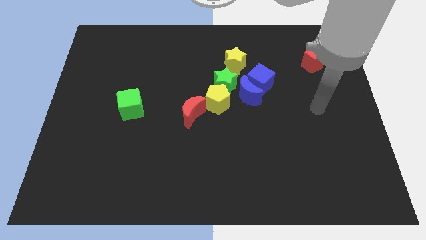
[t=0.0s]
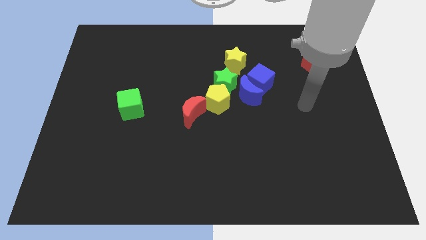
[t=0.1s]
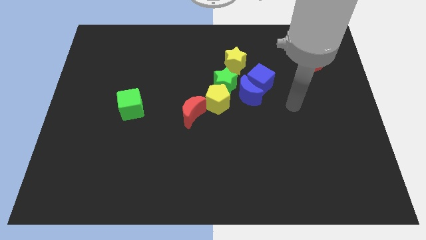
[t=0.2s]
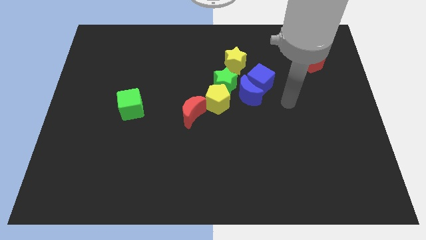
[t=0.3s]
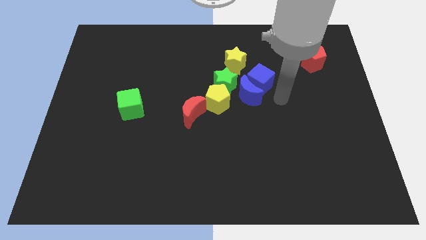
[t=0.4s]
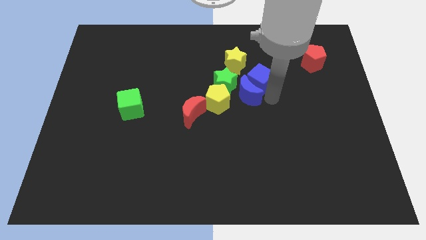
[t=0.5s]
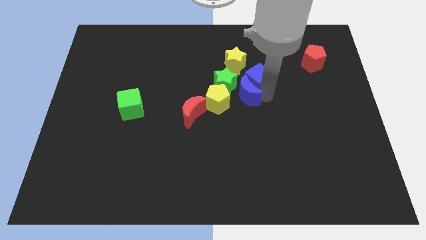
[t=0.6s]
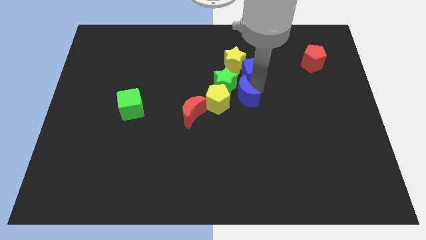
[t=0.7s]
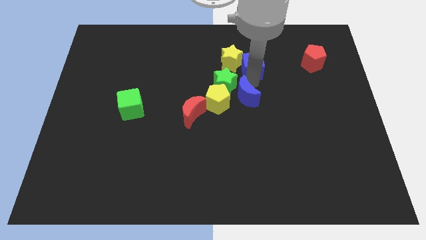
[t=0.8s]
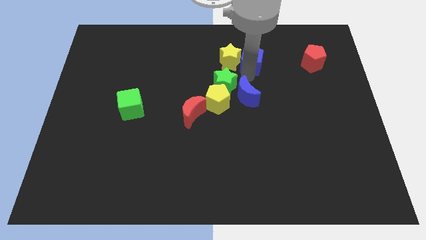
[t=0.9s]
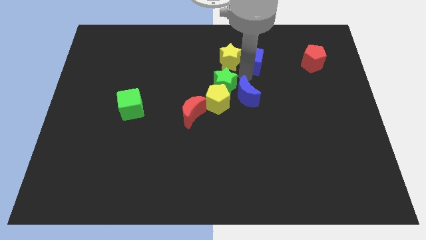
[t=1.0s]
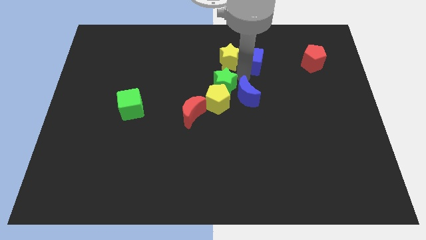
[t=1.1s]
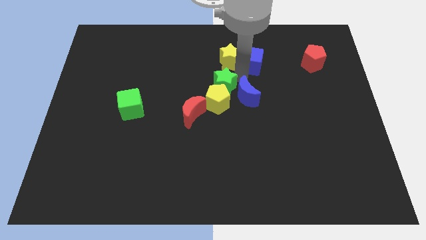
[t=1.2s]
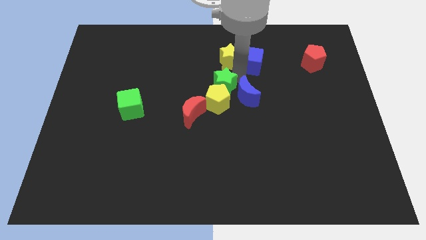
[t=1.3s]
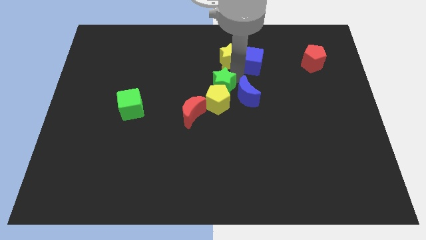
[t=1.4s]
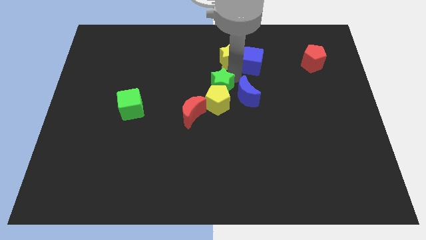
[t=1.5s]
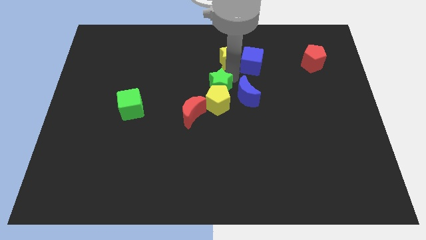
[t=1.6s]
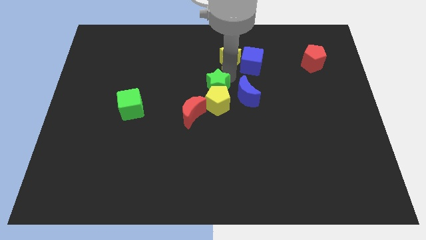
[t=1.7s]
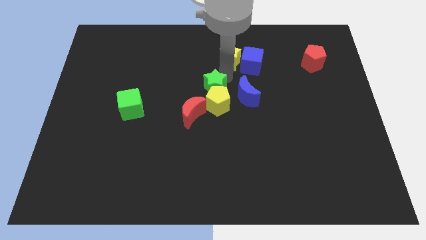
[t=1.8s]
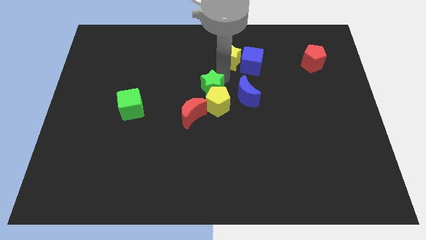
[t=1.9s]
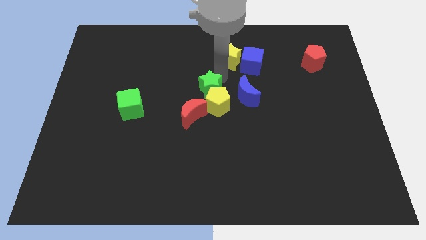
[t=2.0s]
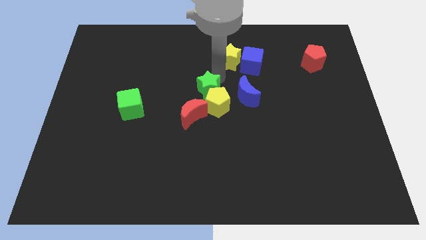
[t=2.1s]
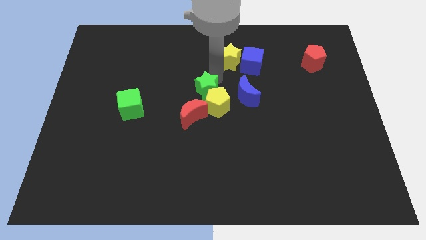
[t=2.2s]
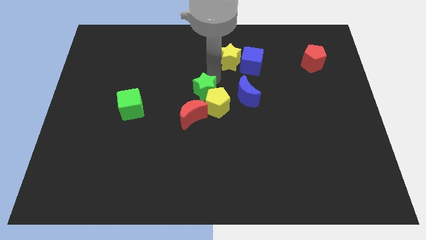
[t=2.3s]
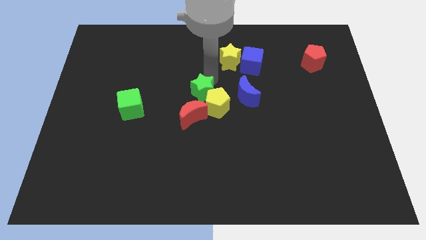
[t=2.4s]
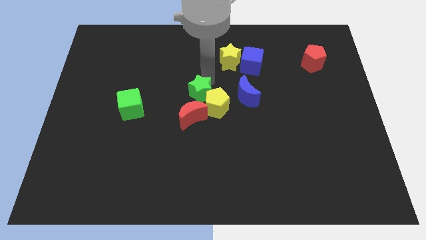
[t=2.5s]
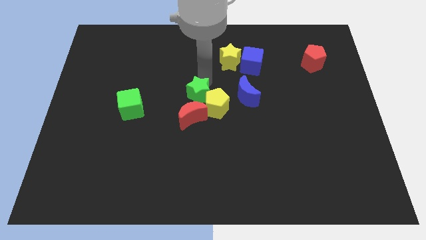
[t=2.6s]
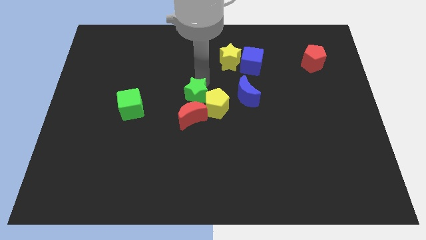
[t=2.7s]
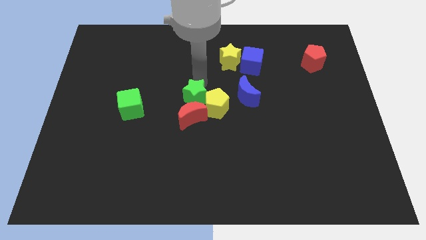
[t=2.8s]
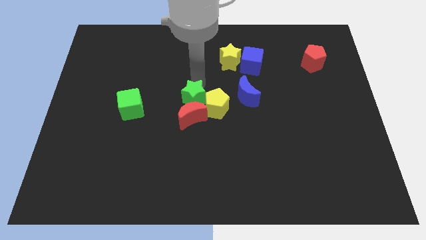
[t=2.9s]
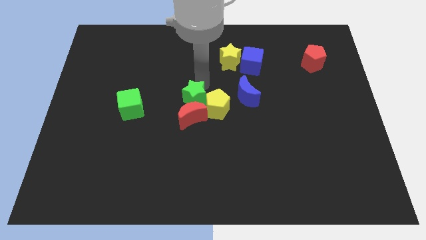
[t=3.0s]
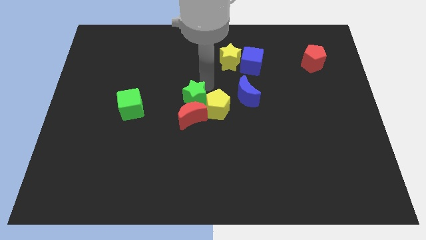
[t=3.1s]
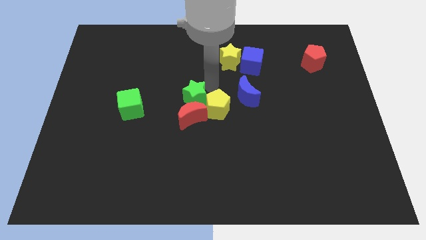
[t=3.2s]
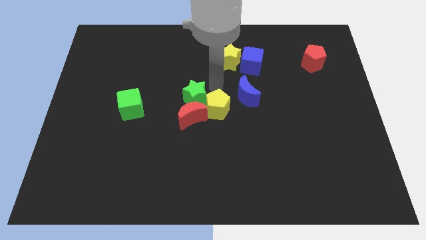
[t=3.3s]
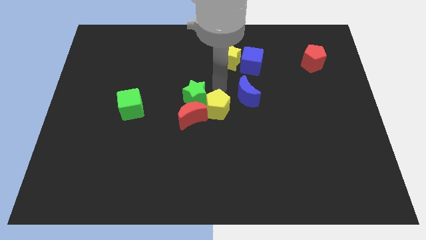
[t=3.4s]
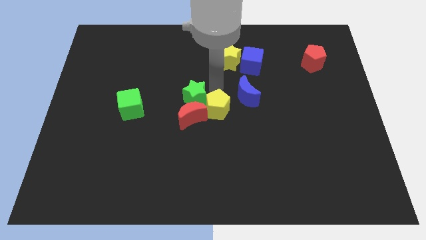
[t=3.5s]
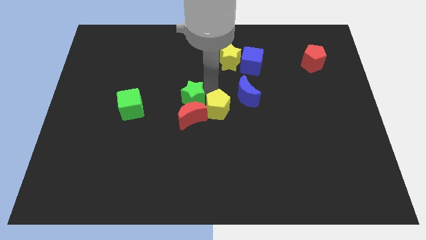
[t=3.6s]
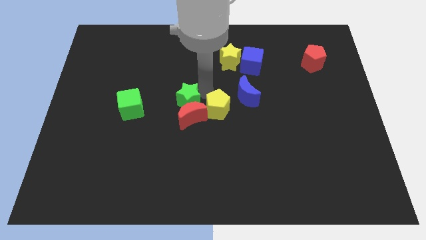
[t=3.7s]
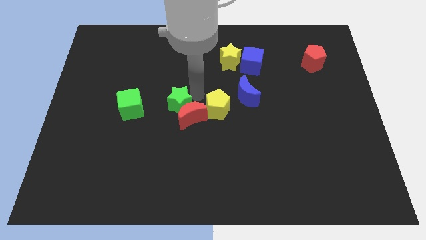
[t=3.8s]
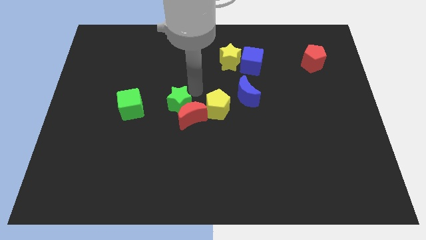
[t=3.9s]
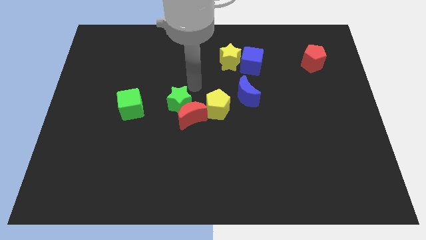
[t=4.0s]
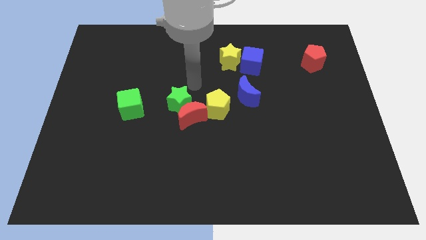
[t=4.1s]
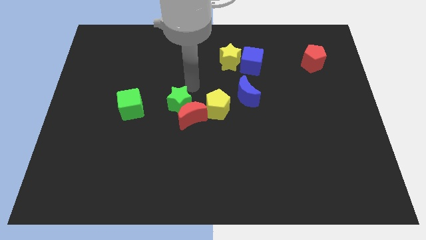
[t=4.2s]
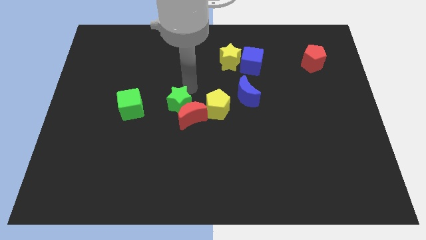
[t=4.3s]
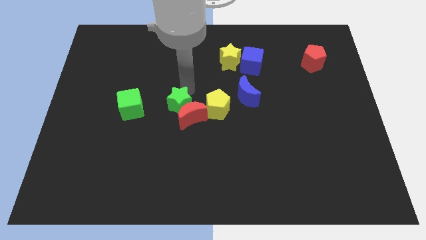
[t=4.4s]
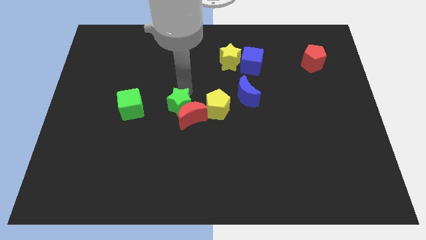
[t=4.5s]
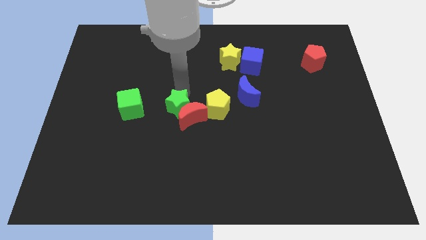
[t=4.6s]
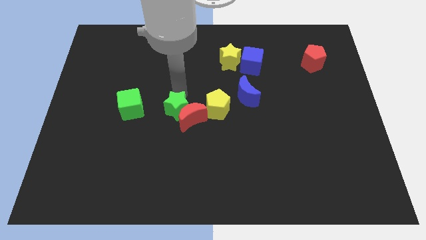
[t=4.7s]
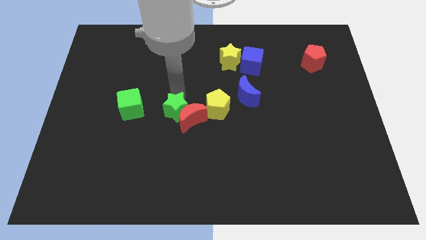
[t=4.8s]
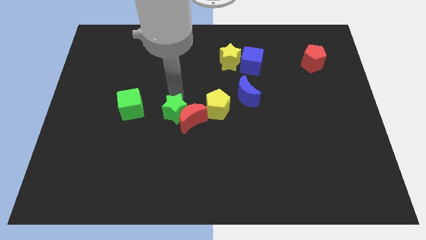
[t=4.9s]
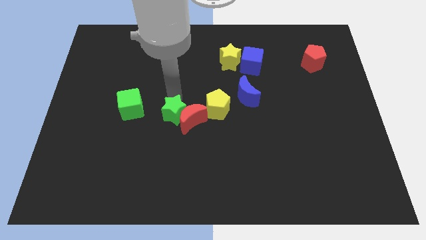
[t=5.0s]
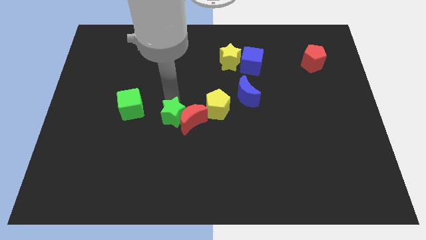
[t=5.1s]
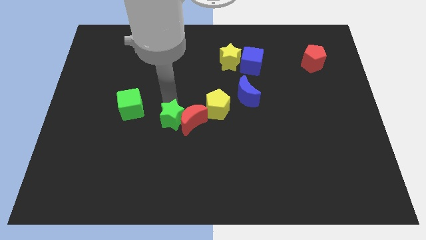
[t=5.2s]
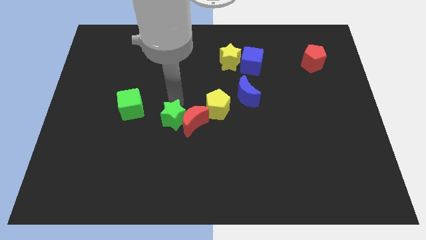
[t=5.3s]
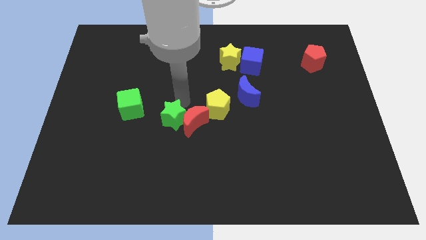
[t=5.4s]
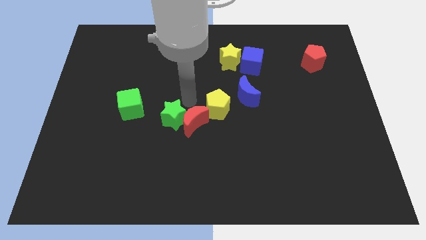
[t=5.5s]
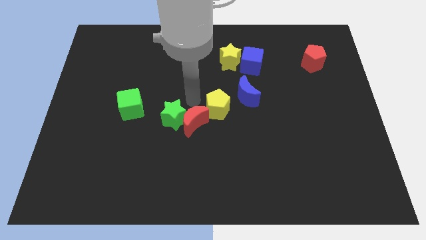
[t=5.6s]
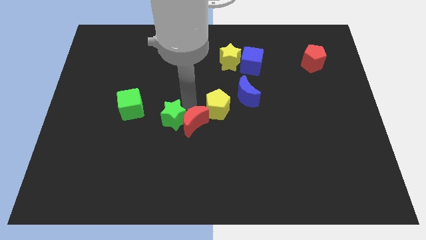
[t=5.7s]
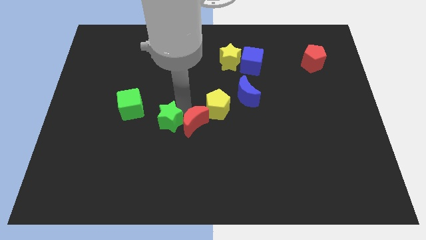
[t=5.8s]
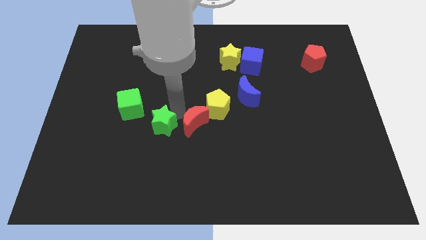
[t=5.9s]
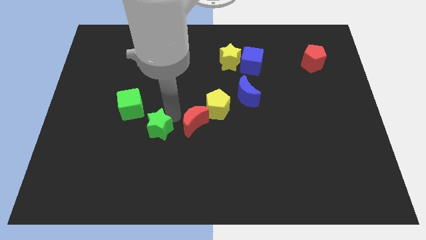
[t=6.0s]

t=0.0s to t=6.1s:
push the green star down and then left

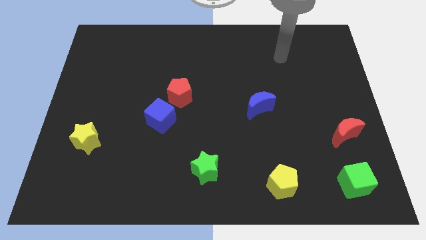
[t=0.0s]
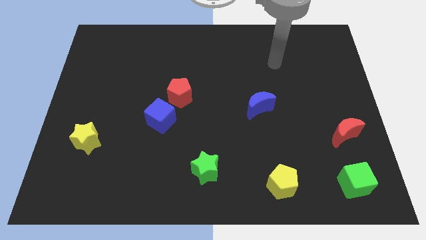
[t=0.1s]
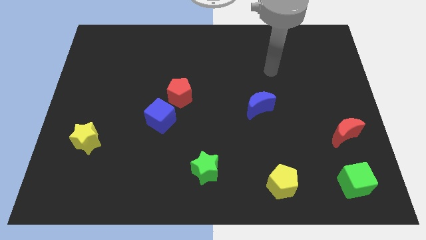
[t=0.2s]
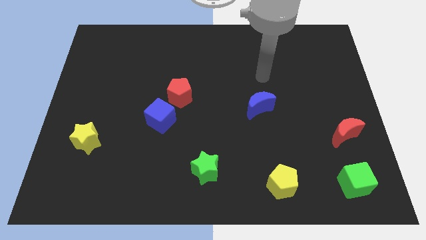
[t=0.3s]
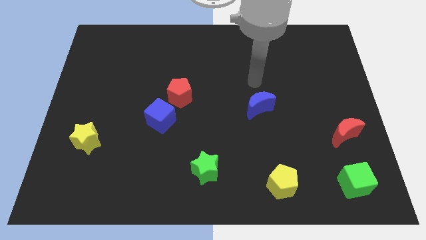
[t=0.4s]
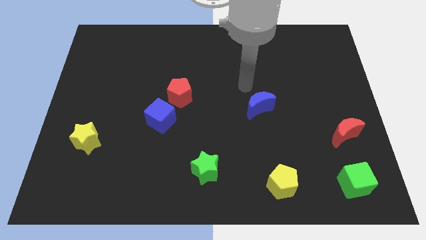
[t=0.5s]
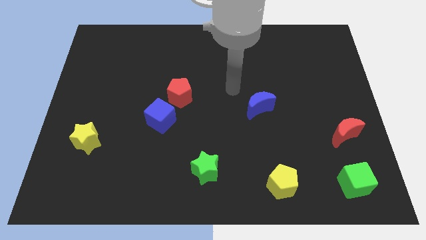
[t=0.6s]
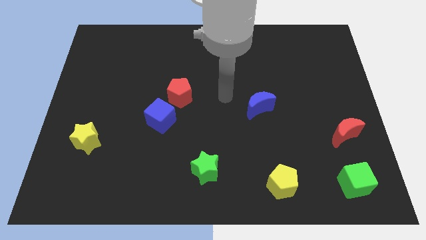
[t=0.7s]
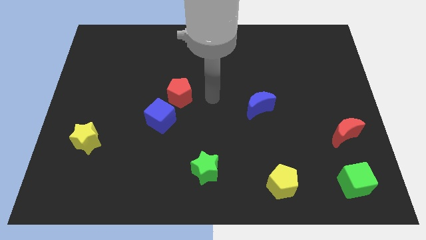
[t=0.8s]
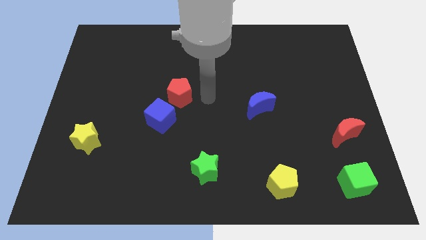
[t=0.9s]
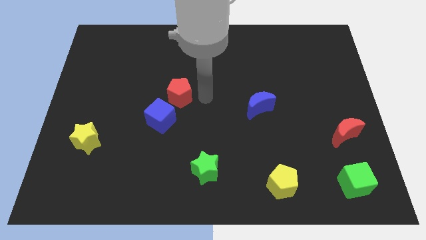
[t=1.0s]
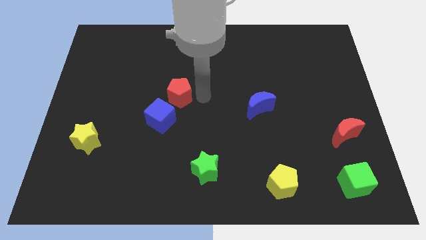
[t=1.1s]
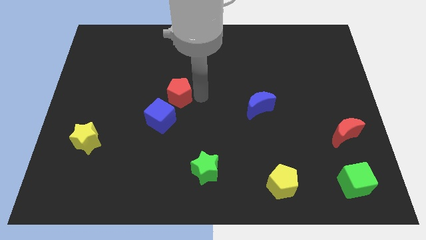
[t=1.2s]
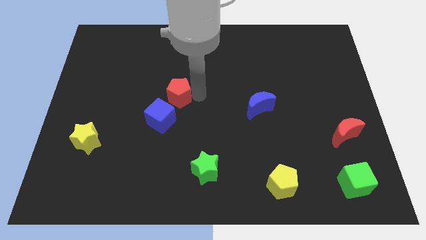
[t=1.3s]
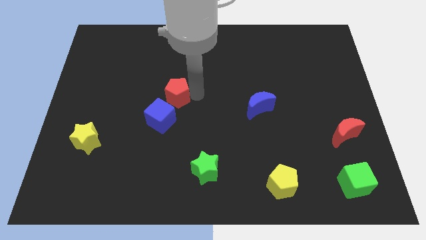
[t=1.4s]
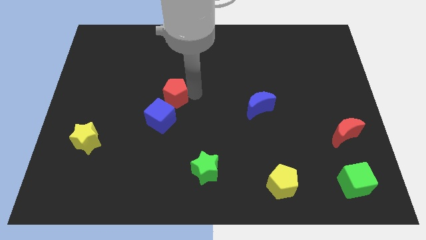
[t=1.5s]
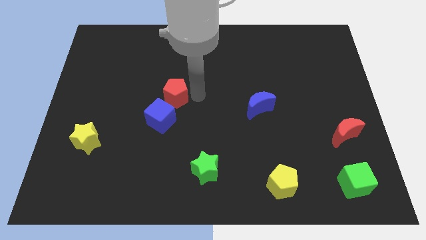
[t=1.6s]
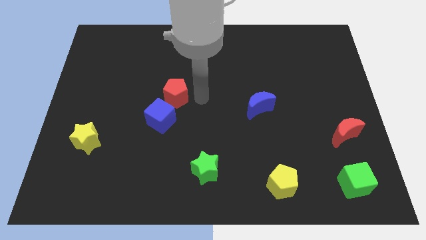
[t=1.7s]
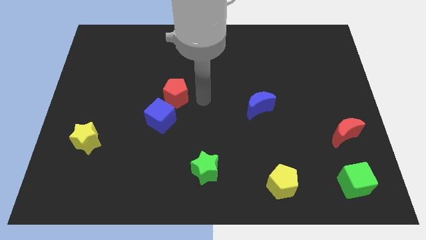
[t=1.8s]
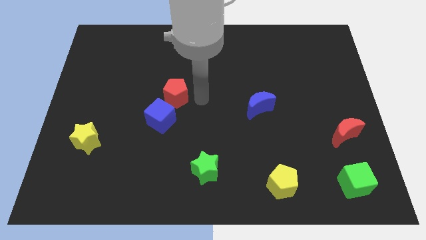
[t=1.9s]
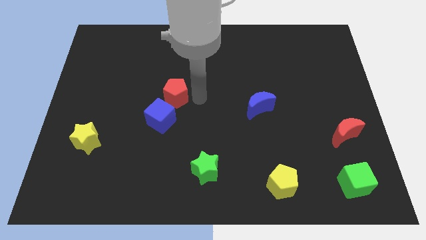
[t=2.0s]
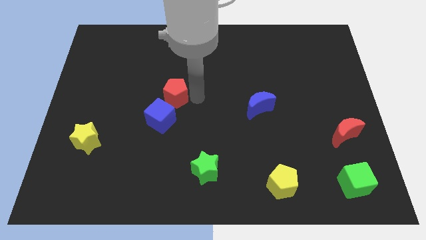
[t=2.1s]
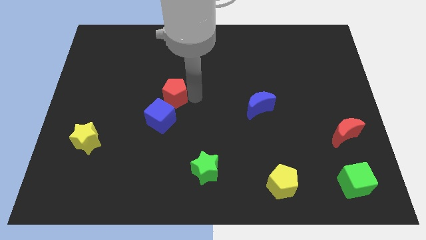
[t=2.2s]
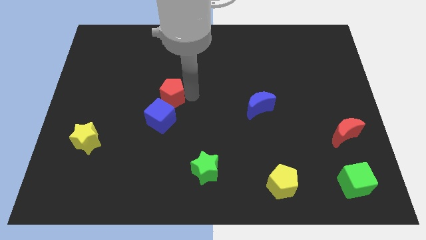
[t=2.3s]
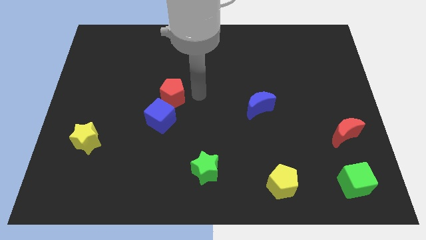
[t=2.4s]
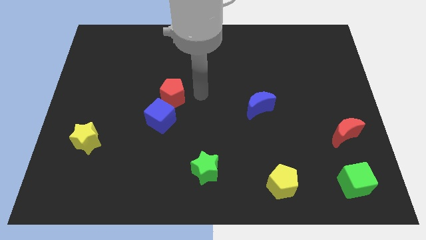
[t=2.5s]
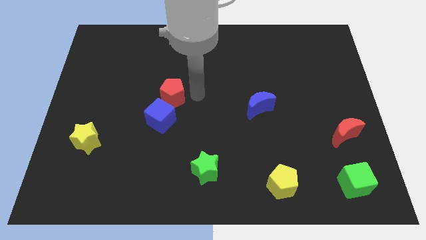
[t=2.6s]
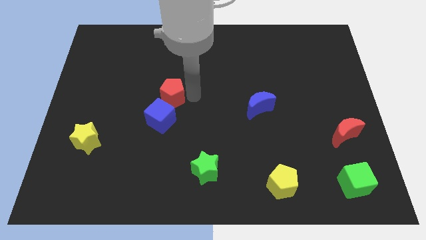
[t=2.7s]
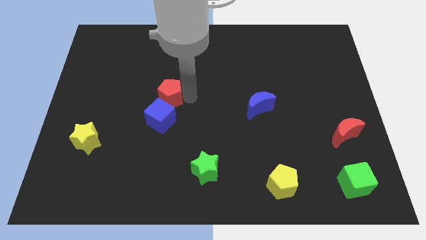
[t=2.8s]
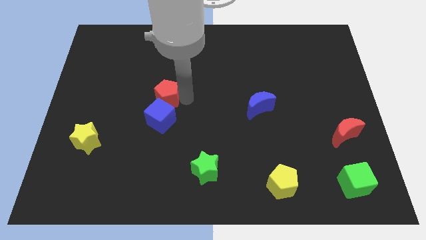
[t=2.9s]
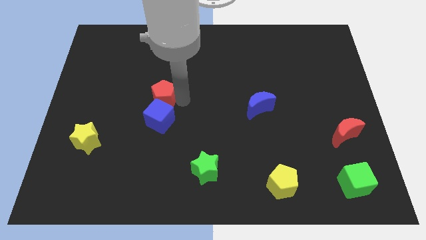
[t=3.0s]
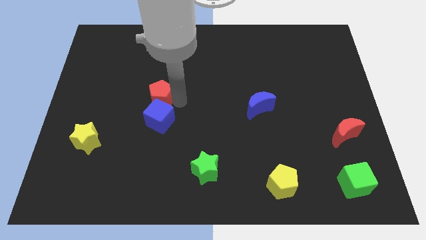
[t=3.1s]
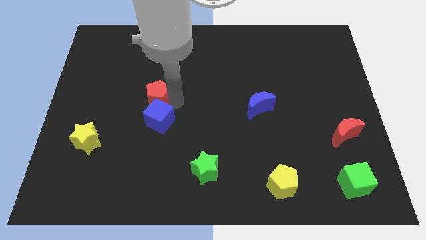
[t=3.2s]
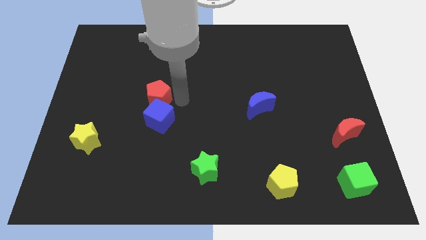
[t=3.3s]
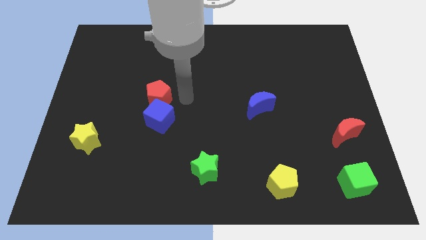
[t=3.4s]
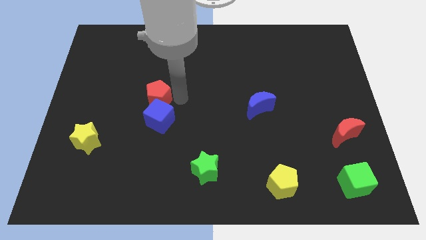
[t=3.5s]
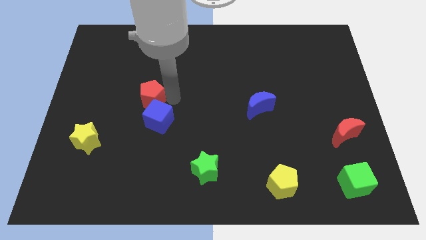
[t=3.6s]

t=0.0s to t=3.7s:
slide the red pentagon left a bit
